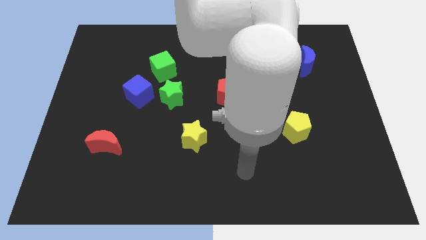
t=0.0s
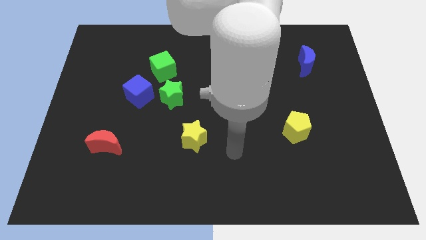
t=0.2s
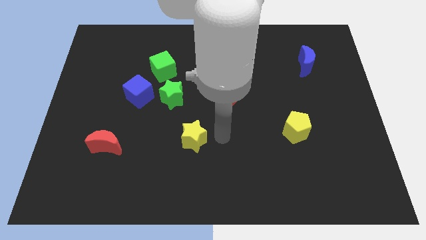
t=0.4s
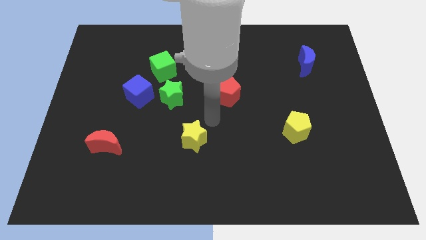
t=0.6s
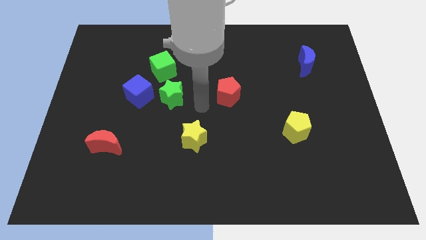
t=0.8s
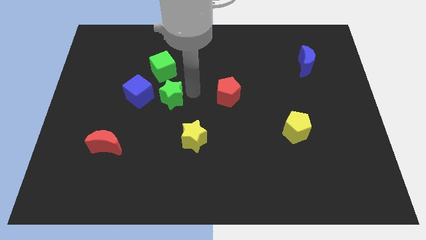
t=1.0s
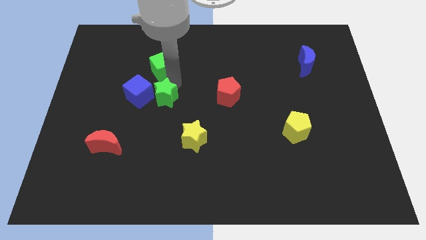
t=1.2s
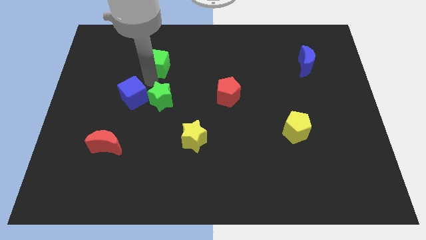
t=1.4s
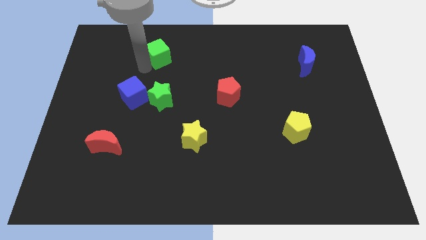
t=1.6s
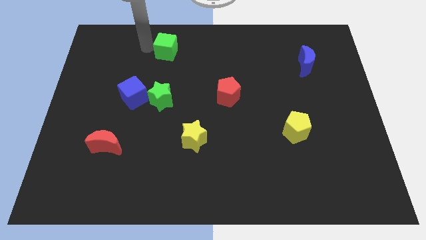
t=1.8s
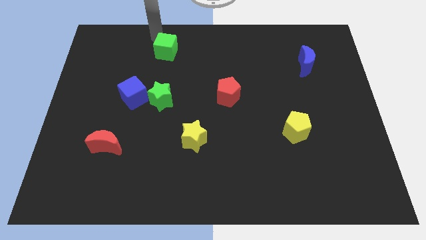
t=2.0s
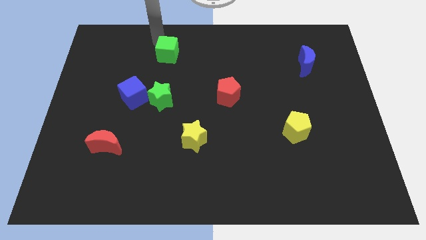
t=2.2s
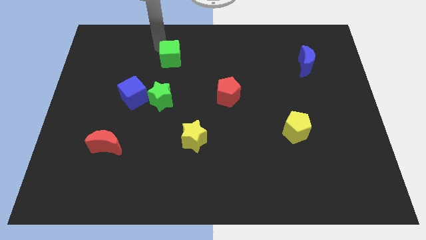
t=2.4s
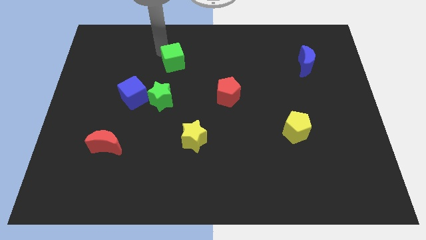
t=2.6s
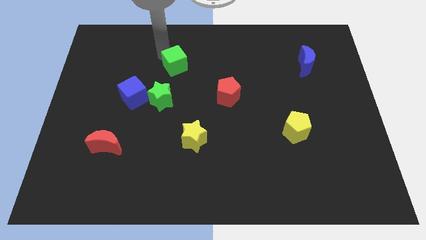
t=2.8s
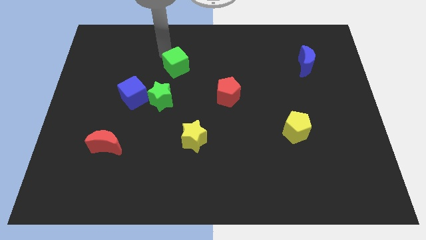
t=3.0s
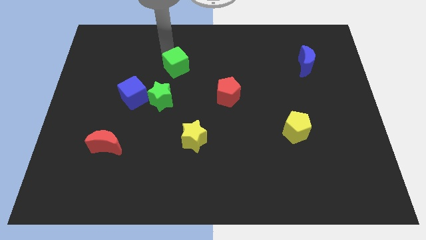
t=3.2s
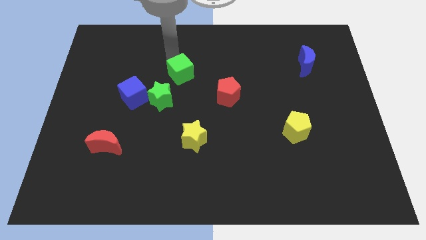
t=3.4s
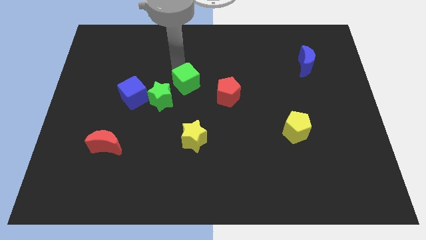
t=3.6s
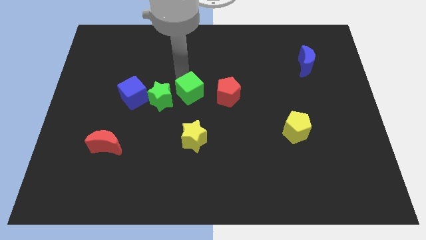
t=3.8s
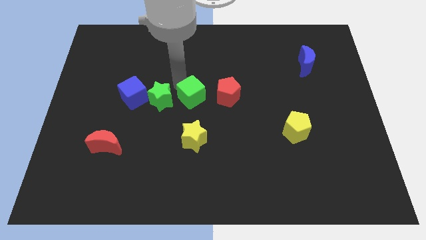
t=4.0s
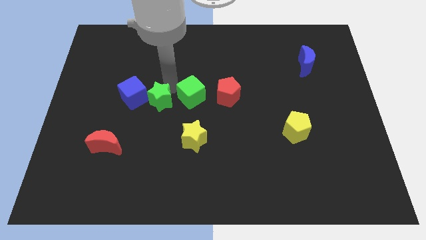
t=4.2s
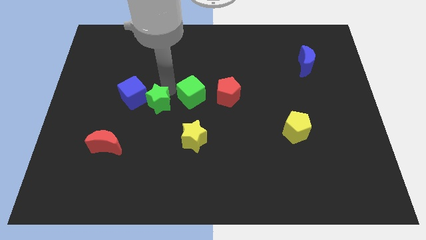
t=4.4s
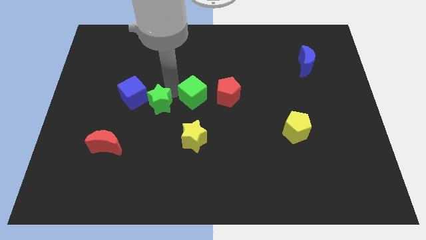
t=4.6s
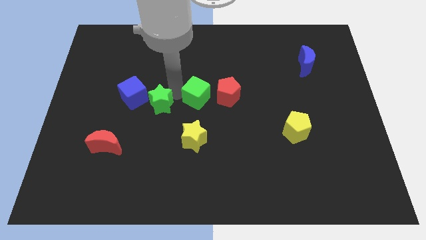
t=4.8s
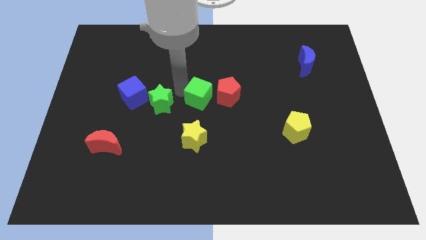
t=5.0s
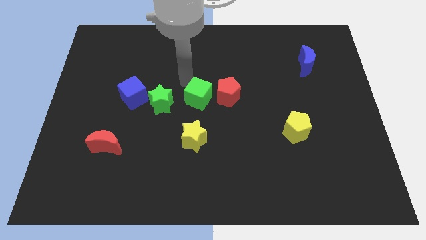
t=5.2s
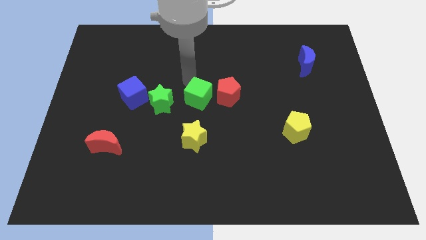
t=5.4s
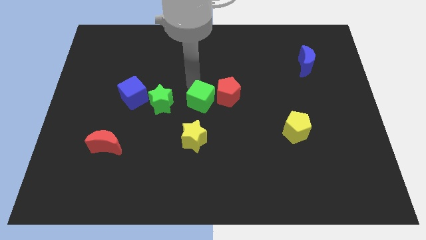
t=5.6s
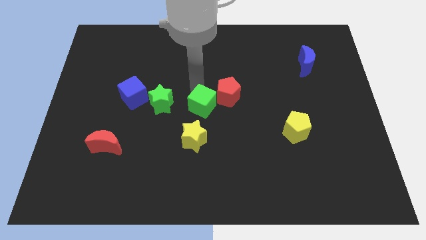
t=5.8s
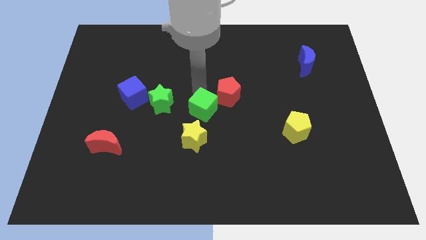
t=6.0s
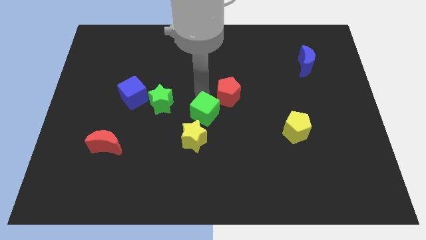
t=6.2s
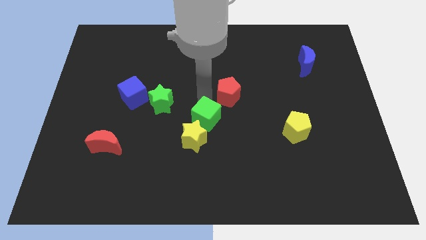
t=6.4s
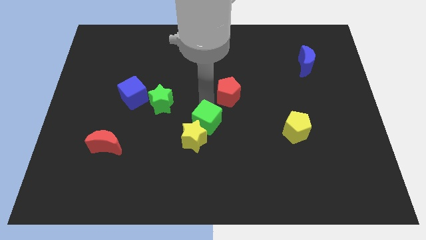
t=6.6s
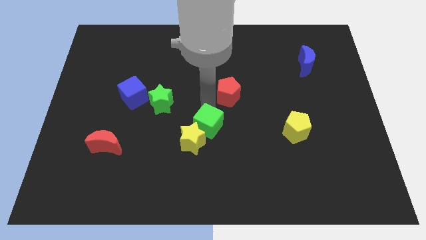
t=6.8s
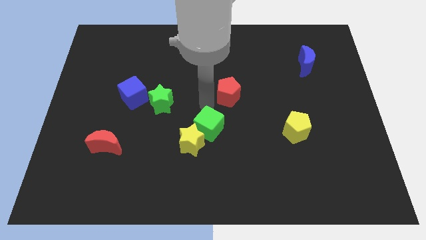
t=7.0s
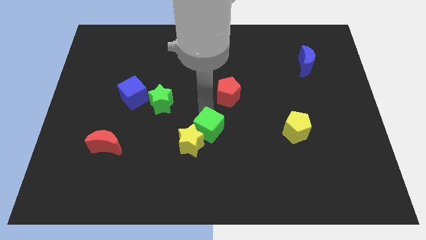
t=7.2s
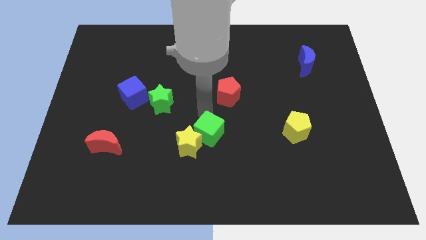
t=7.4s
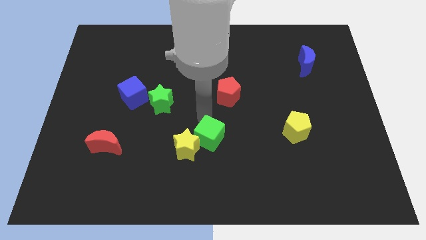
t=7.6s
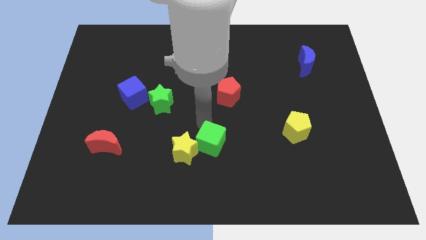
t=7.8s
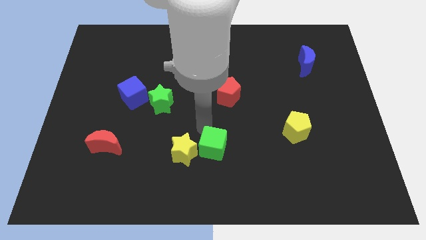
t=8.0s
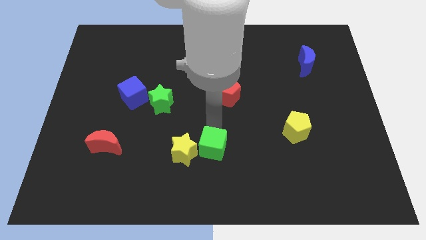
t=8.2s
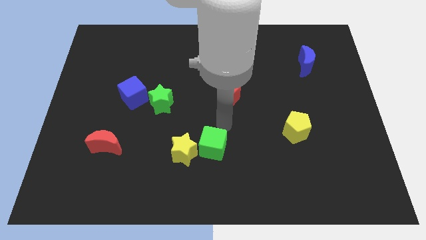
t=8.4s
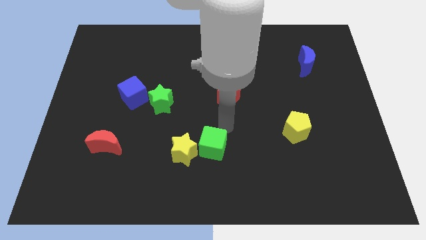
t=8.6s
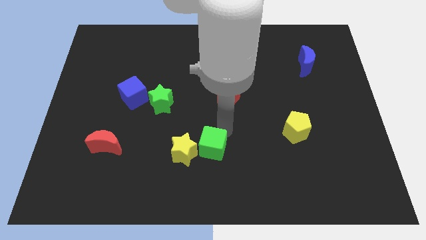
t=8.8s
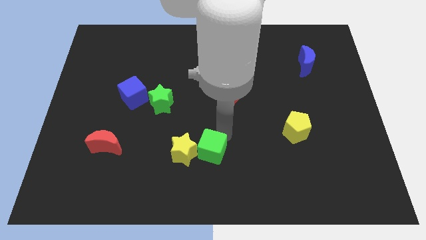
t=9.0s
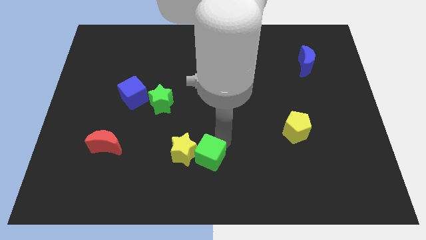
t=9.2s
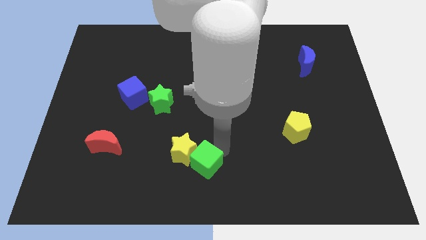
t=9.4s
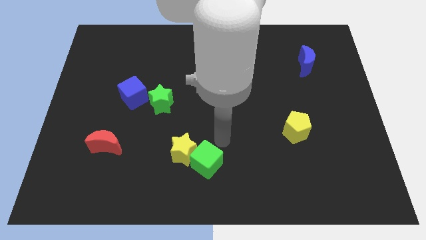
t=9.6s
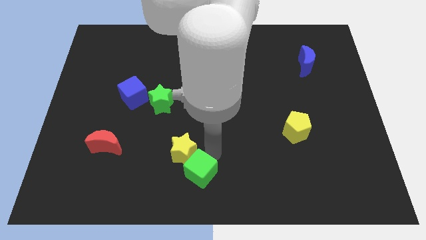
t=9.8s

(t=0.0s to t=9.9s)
put the green cube below the yellow star

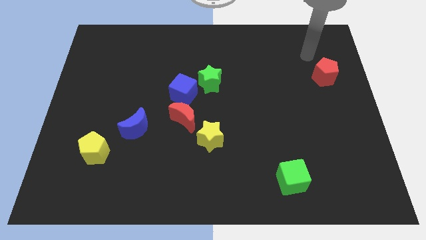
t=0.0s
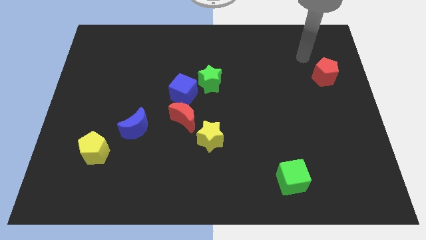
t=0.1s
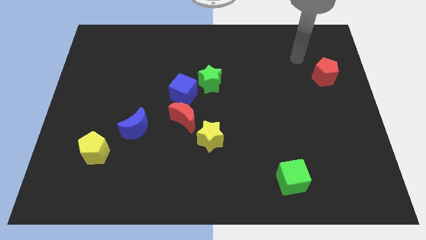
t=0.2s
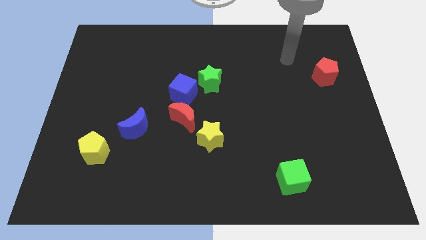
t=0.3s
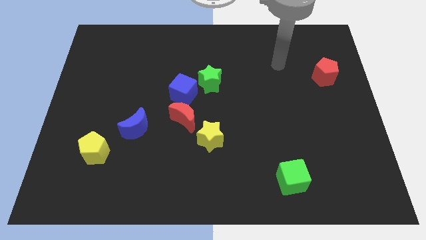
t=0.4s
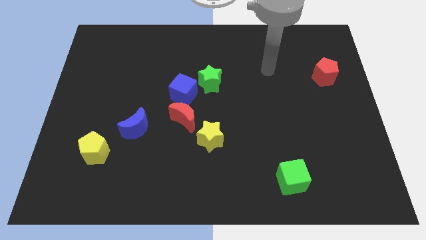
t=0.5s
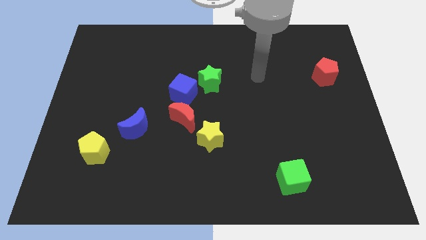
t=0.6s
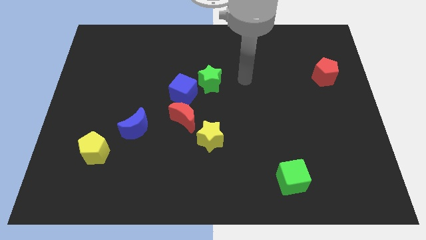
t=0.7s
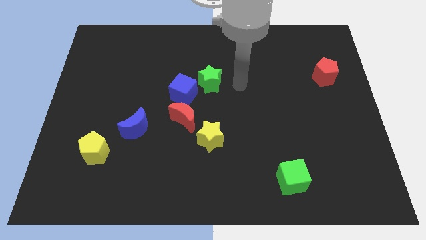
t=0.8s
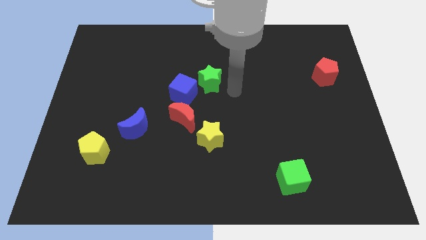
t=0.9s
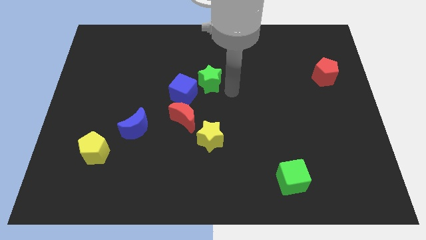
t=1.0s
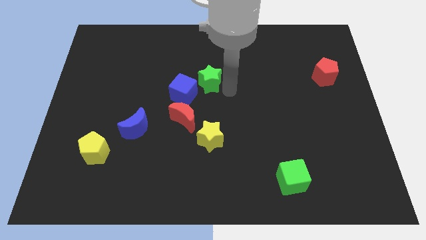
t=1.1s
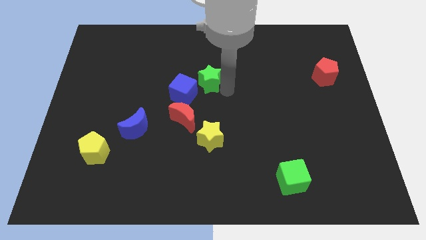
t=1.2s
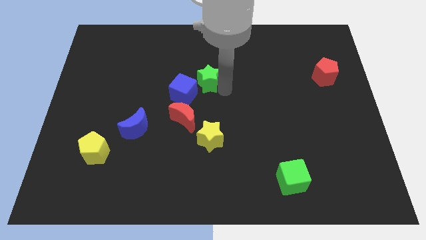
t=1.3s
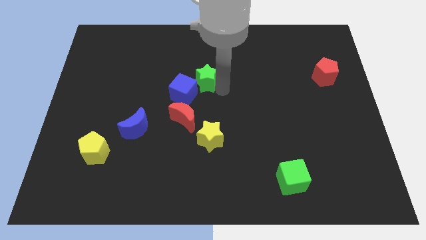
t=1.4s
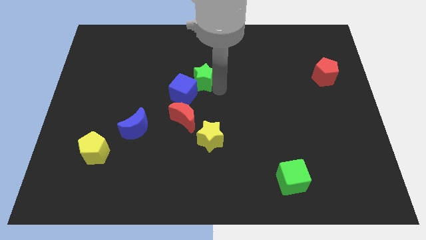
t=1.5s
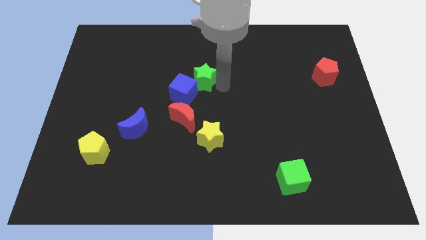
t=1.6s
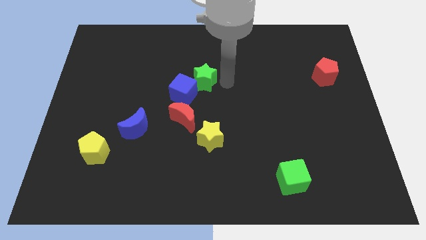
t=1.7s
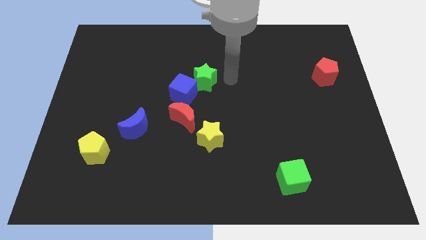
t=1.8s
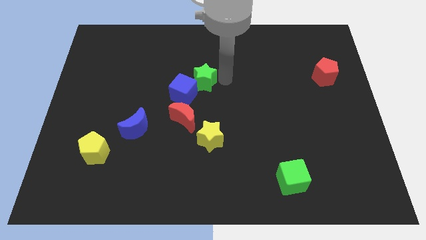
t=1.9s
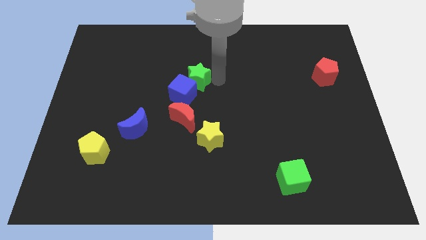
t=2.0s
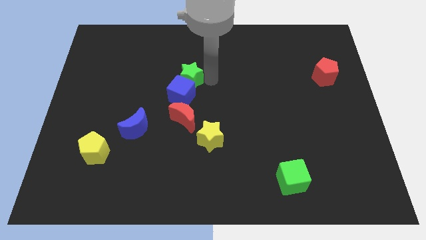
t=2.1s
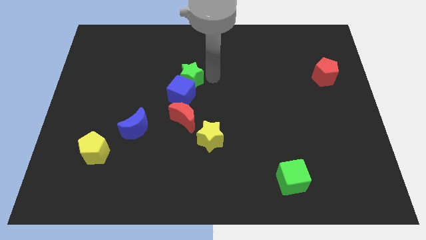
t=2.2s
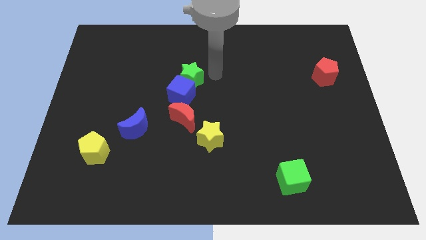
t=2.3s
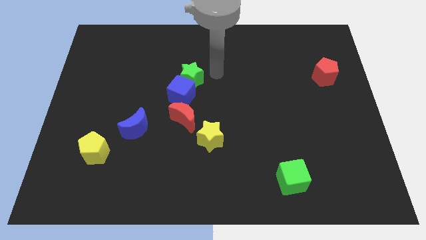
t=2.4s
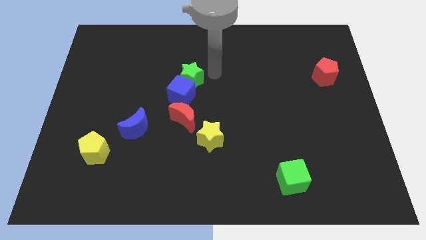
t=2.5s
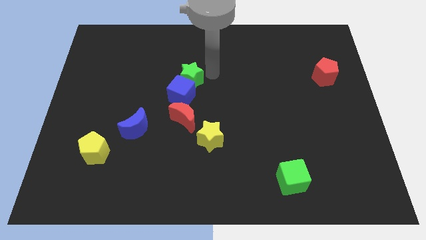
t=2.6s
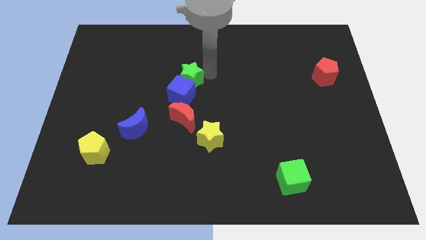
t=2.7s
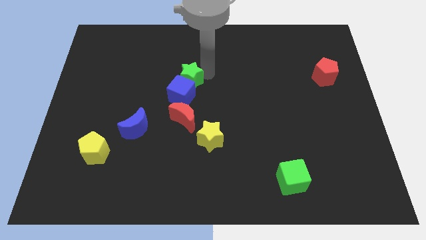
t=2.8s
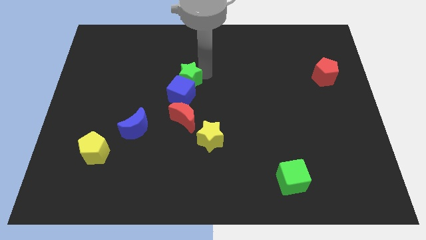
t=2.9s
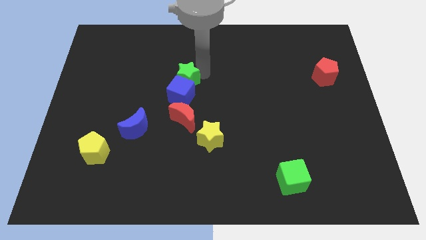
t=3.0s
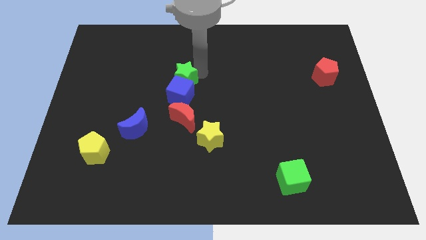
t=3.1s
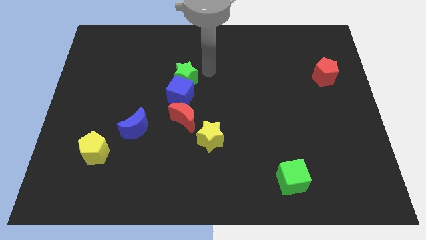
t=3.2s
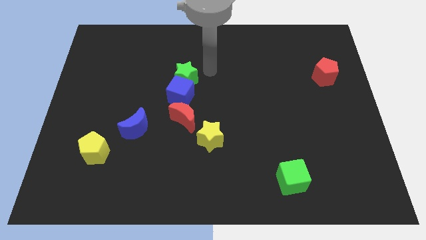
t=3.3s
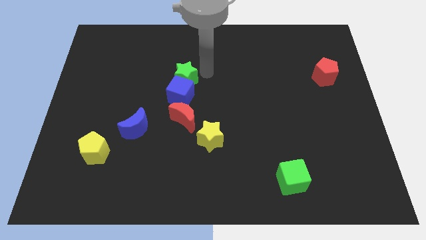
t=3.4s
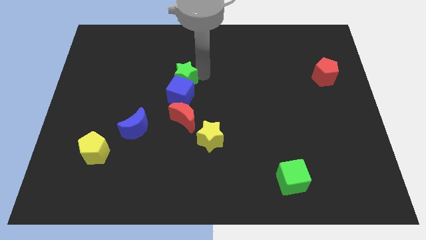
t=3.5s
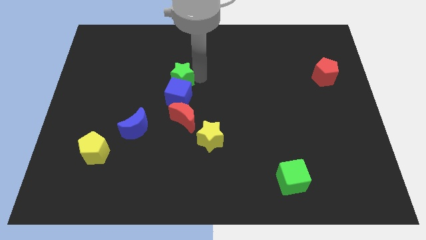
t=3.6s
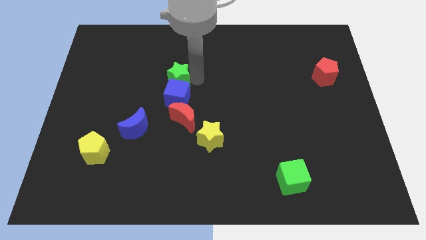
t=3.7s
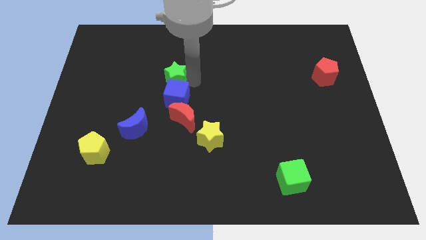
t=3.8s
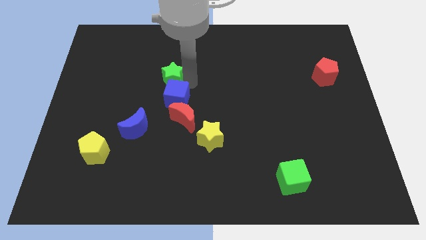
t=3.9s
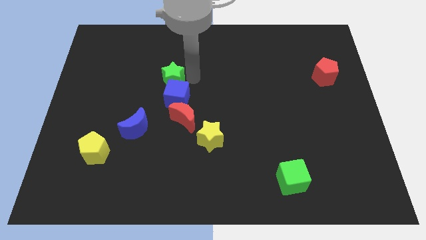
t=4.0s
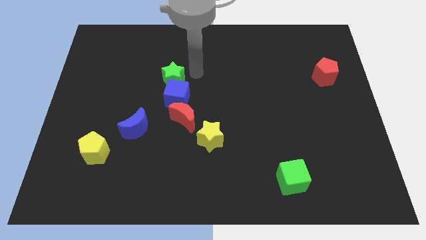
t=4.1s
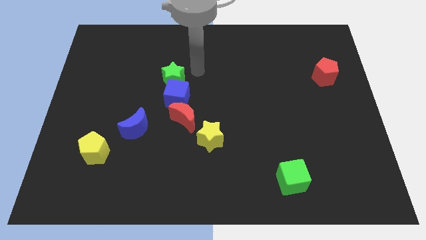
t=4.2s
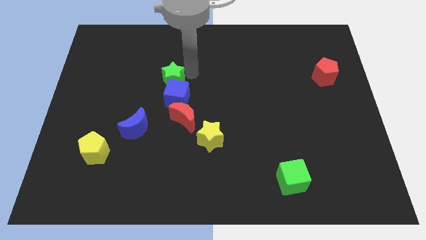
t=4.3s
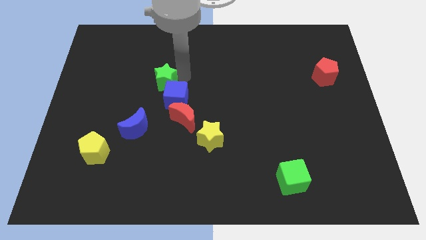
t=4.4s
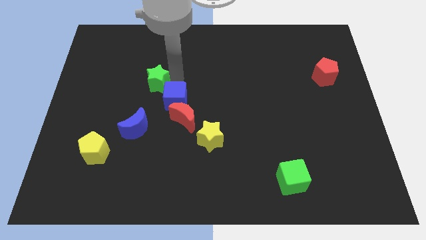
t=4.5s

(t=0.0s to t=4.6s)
slide the green star to the top of the blue moon
